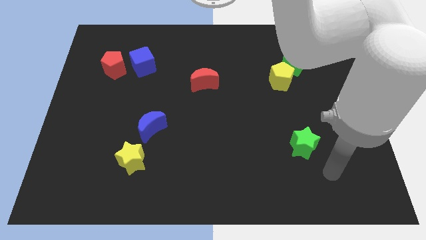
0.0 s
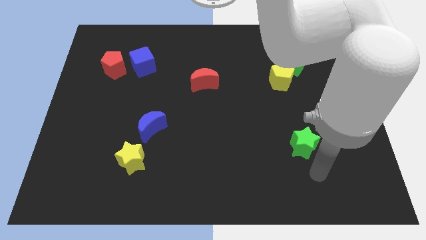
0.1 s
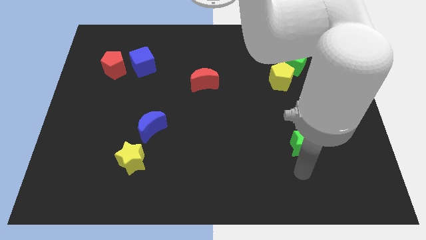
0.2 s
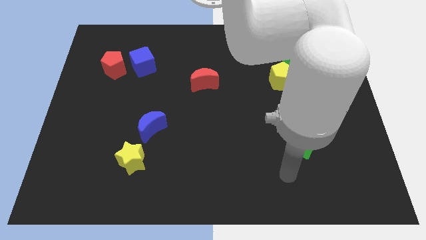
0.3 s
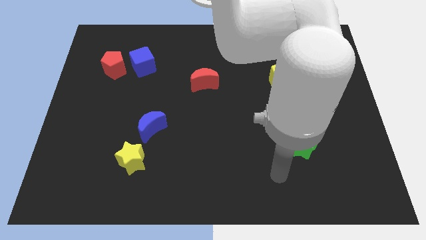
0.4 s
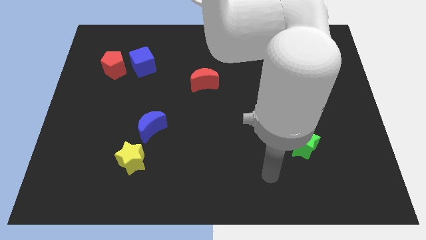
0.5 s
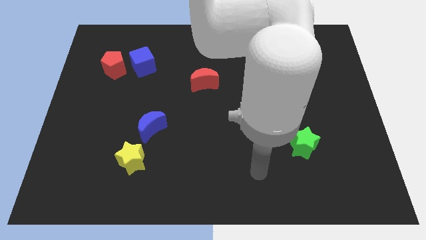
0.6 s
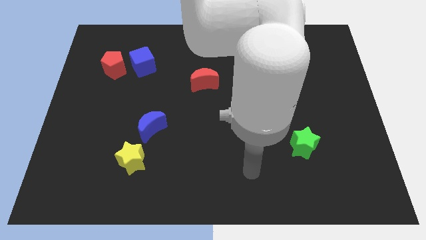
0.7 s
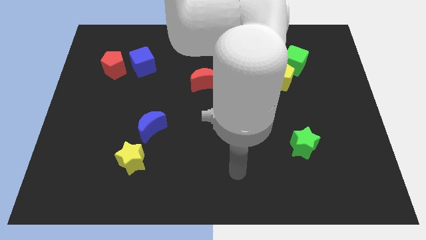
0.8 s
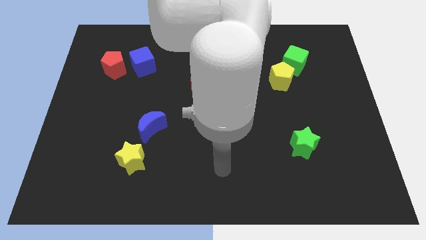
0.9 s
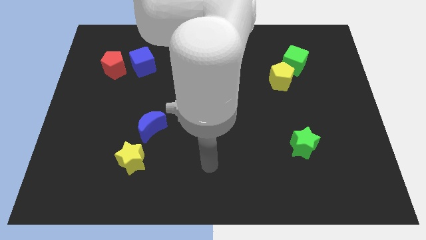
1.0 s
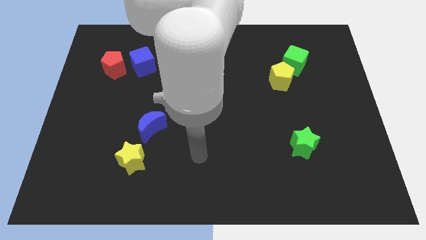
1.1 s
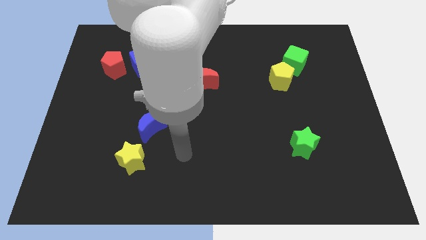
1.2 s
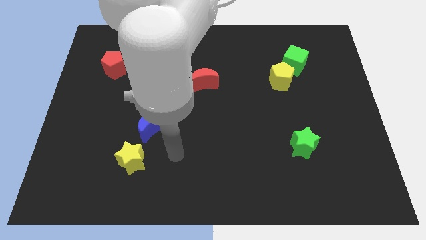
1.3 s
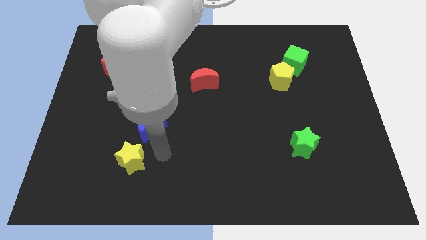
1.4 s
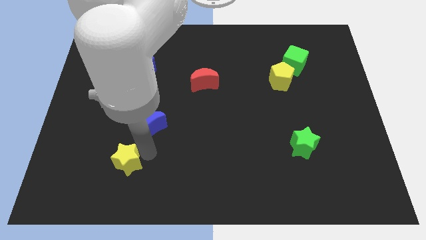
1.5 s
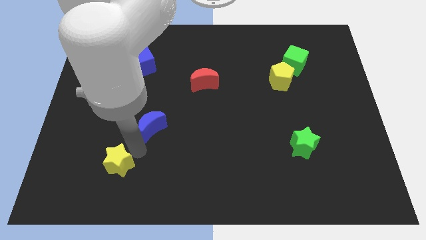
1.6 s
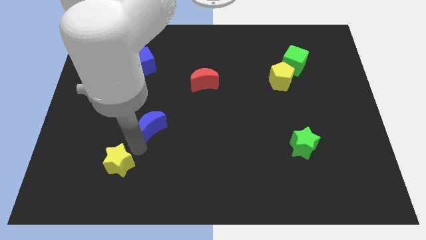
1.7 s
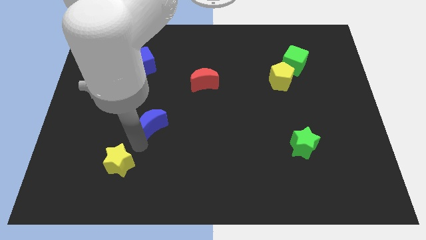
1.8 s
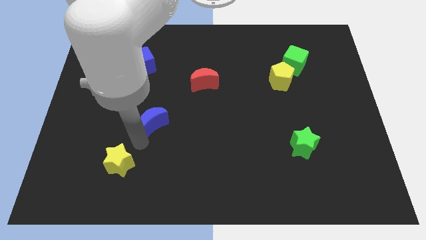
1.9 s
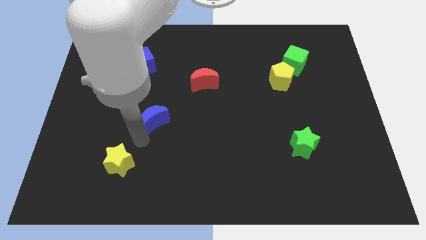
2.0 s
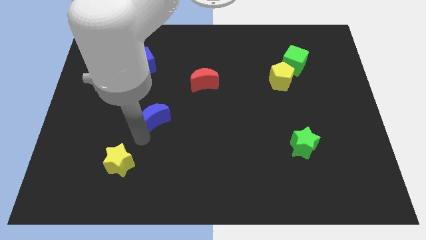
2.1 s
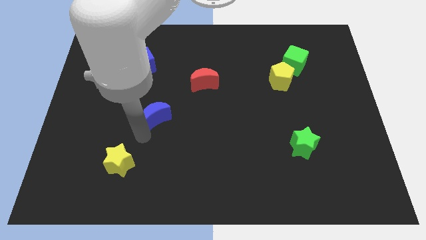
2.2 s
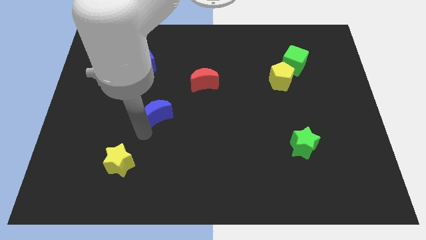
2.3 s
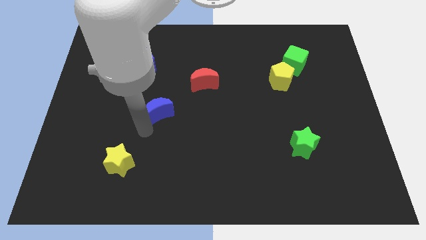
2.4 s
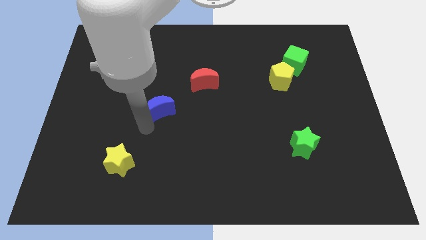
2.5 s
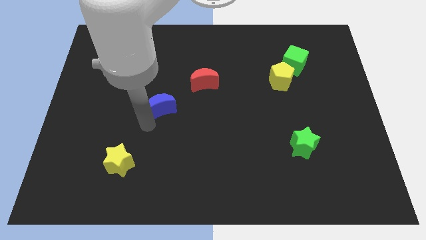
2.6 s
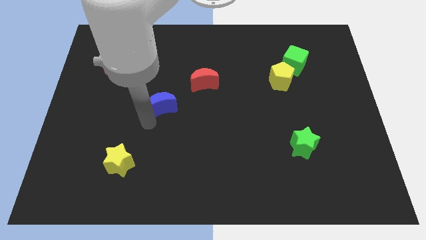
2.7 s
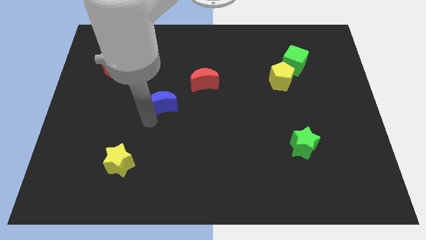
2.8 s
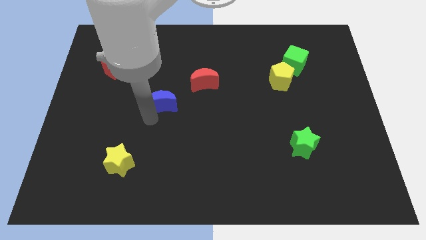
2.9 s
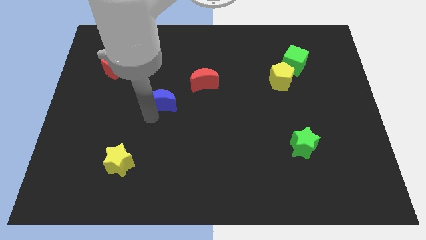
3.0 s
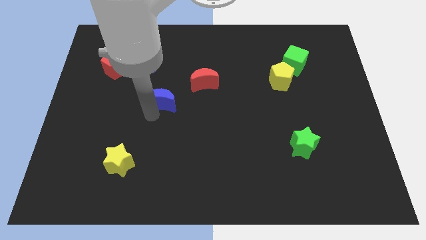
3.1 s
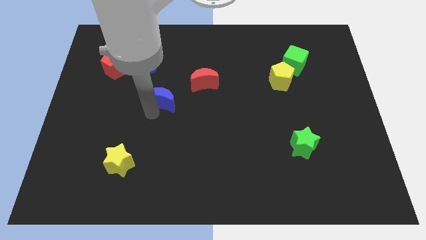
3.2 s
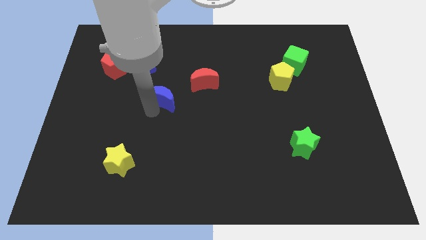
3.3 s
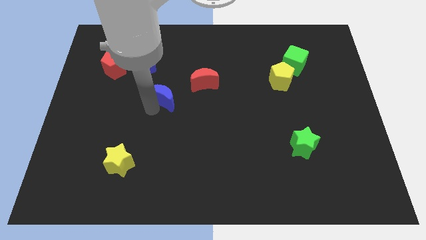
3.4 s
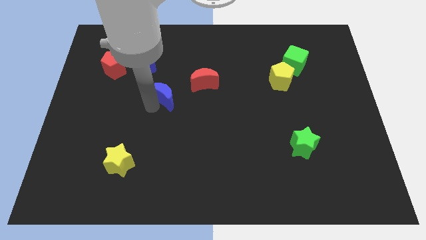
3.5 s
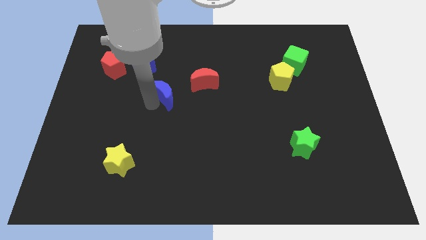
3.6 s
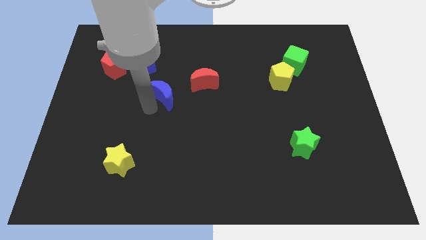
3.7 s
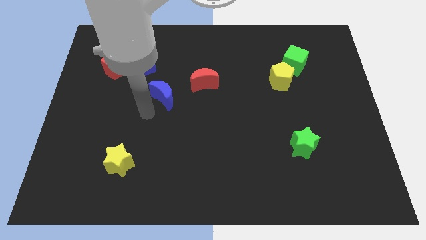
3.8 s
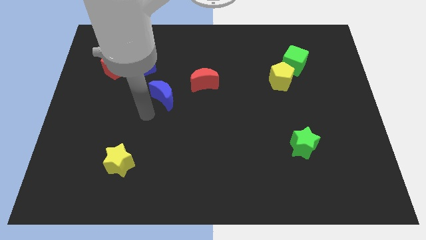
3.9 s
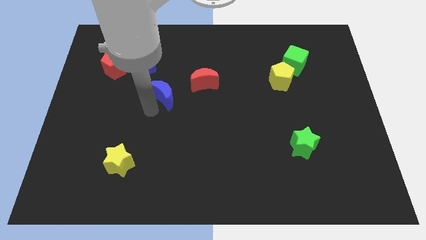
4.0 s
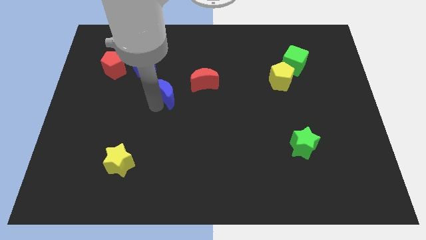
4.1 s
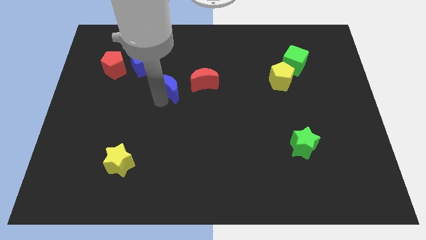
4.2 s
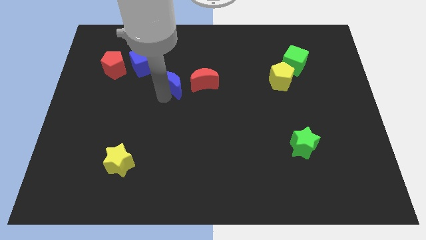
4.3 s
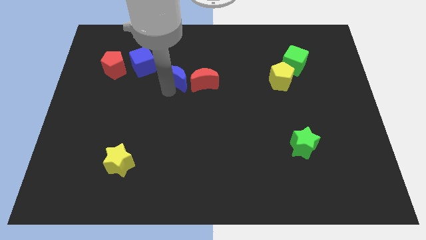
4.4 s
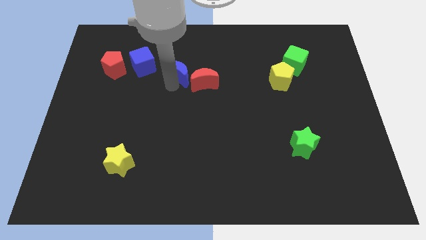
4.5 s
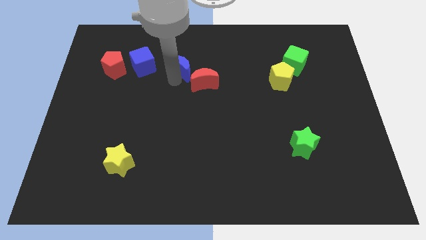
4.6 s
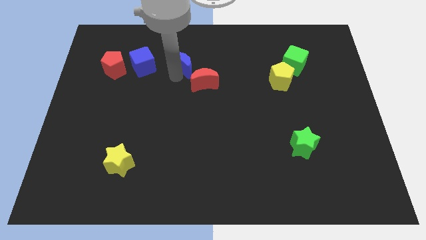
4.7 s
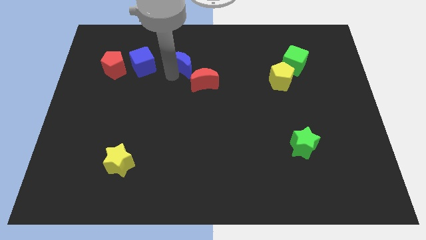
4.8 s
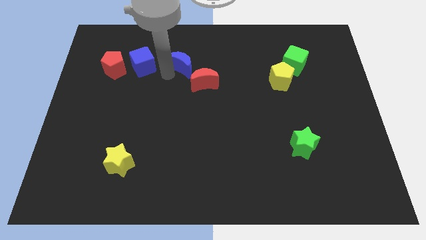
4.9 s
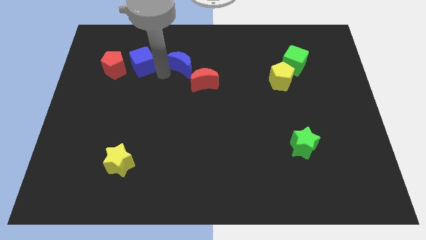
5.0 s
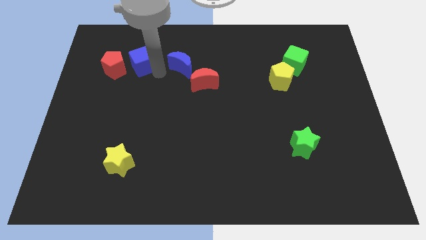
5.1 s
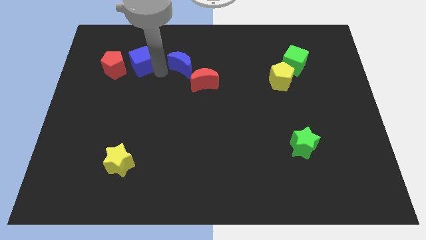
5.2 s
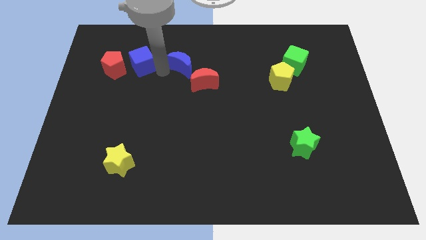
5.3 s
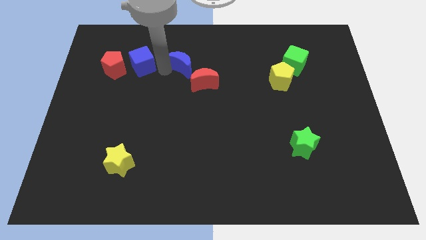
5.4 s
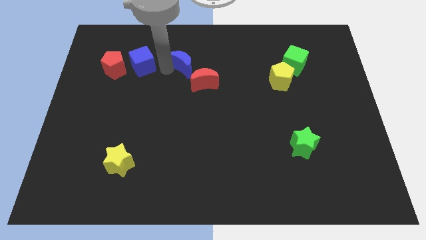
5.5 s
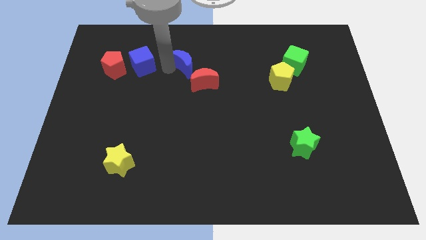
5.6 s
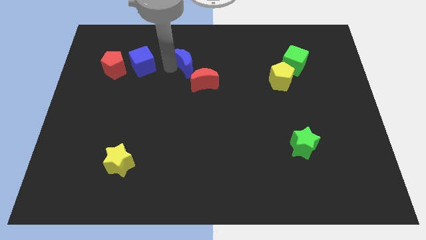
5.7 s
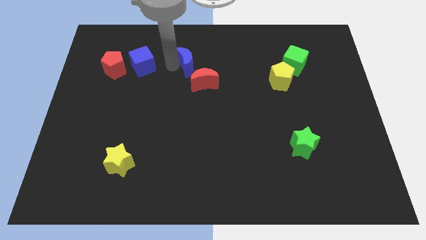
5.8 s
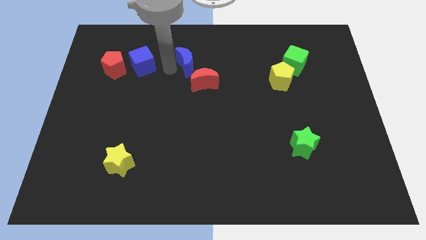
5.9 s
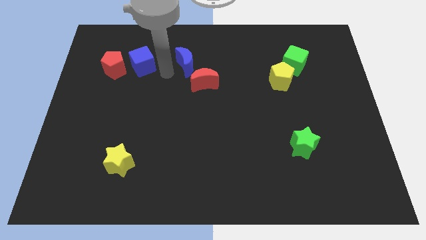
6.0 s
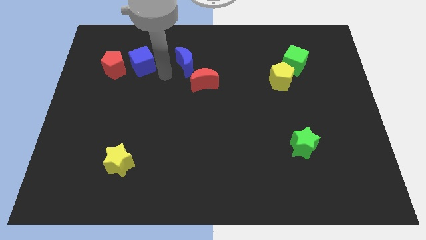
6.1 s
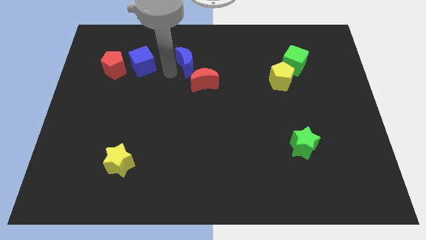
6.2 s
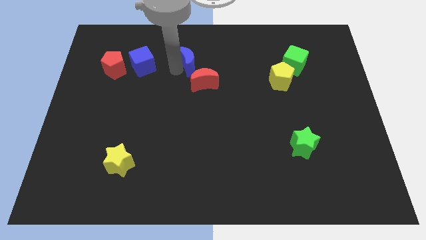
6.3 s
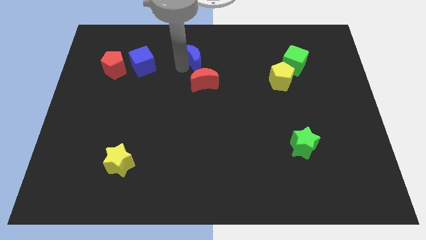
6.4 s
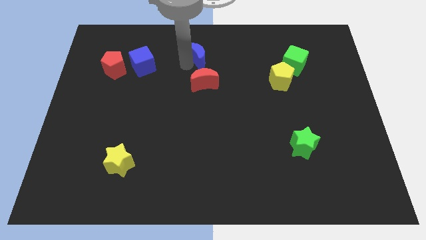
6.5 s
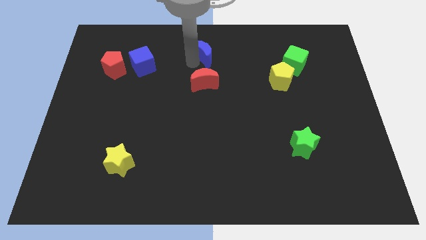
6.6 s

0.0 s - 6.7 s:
put the blue moon to the top side
